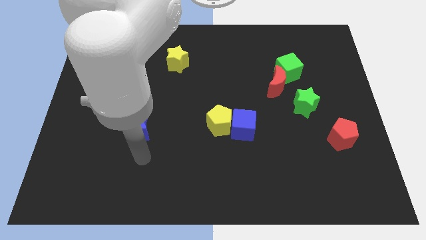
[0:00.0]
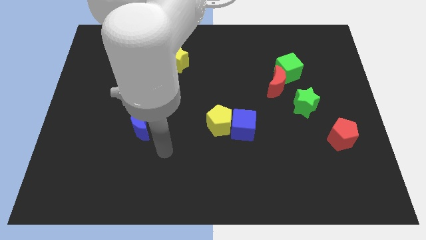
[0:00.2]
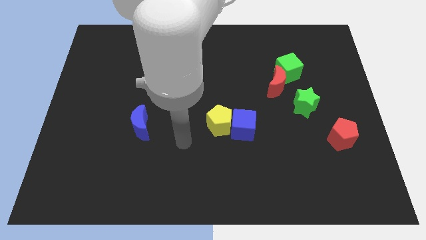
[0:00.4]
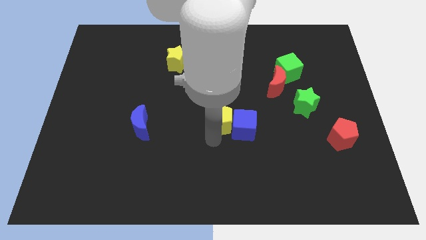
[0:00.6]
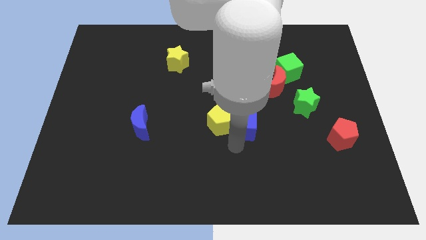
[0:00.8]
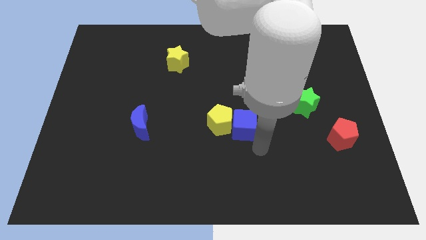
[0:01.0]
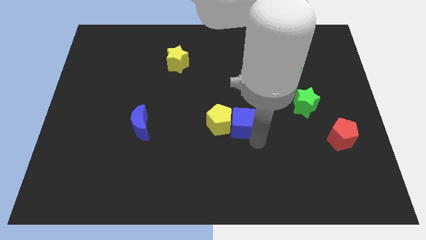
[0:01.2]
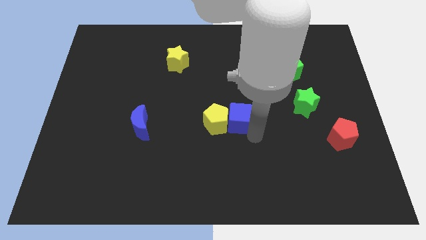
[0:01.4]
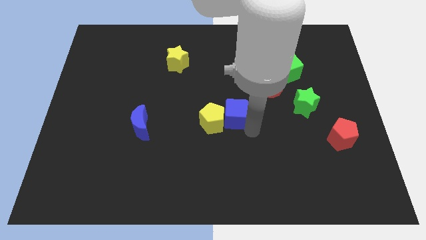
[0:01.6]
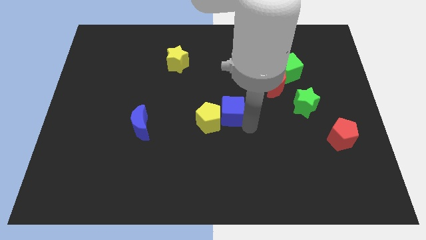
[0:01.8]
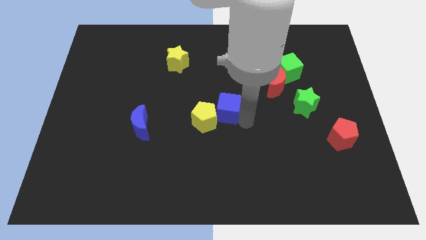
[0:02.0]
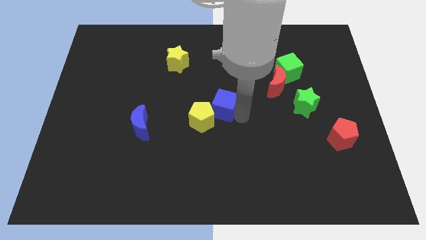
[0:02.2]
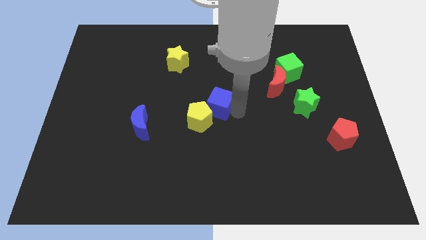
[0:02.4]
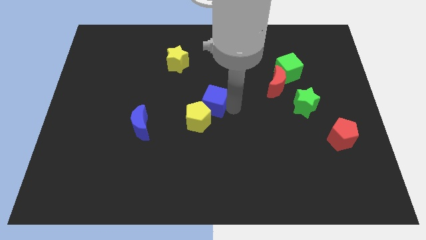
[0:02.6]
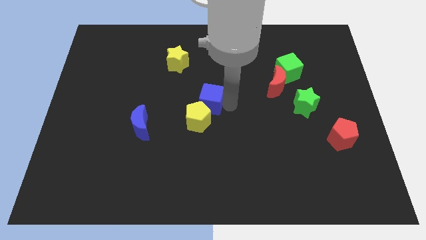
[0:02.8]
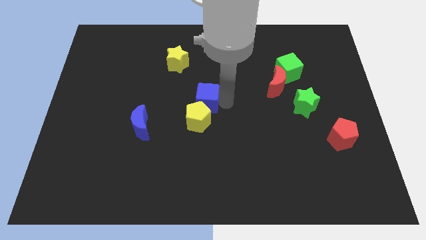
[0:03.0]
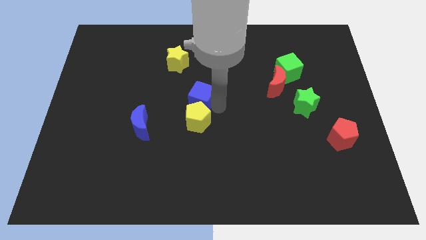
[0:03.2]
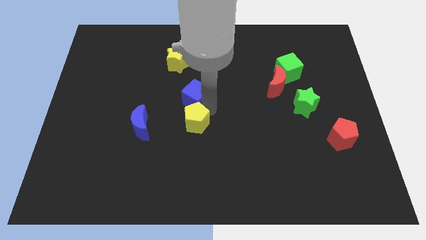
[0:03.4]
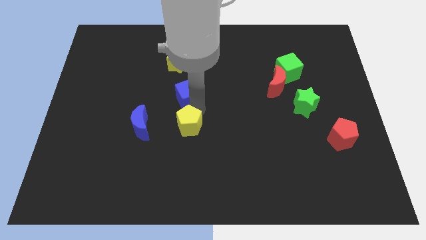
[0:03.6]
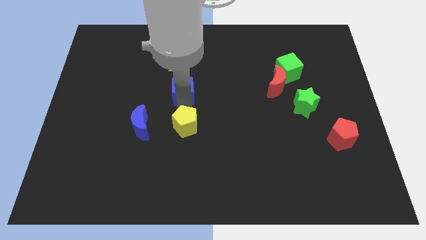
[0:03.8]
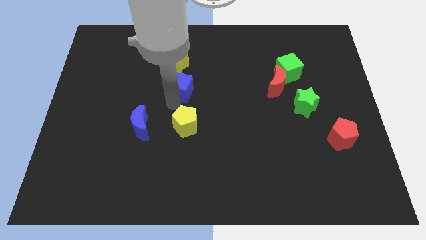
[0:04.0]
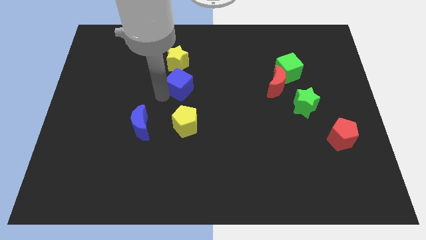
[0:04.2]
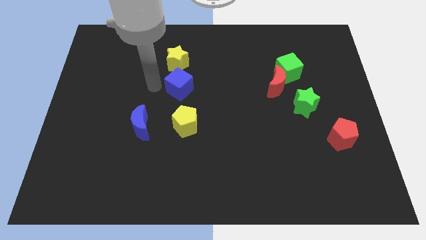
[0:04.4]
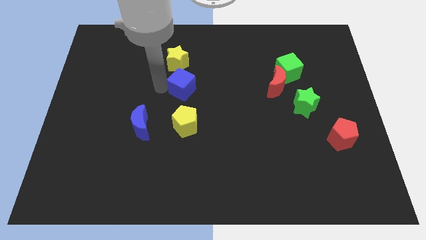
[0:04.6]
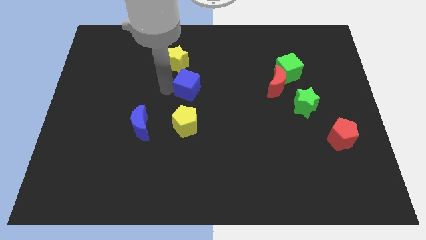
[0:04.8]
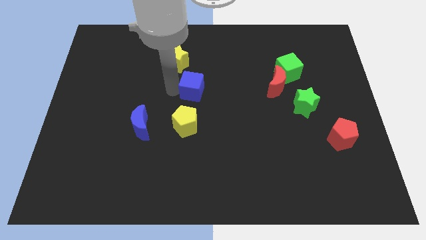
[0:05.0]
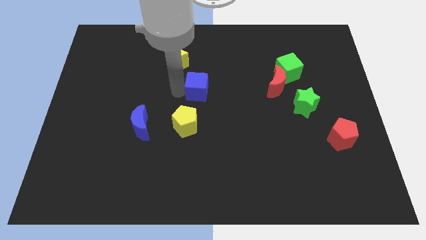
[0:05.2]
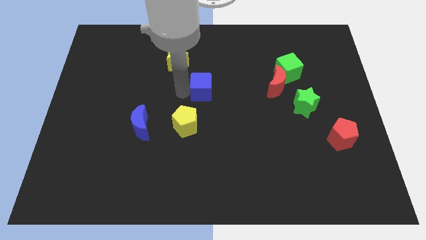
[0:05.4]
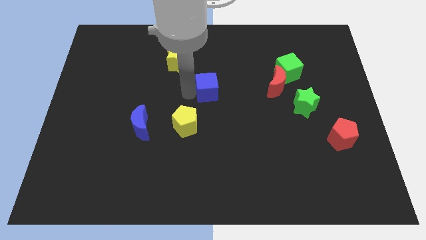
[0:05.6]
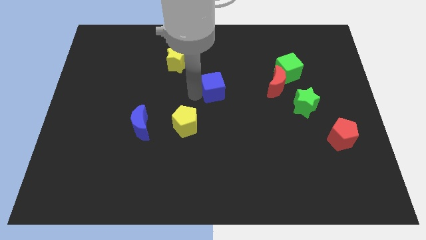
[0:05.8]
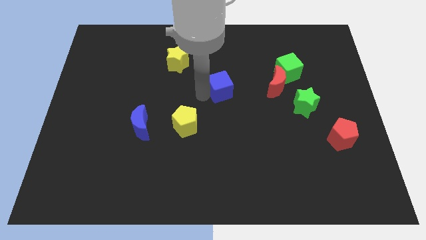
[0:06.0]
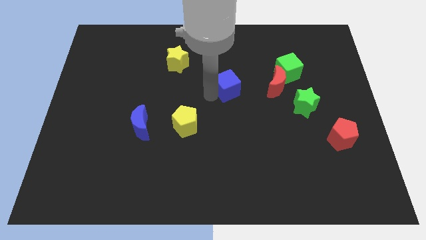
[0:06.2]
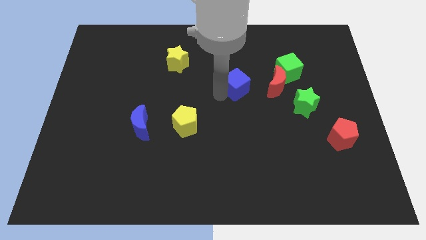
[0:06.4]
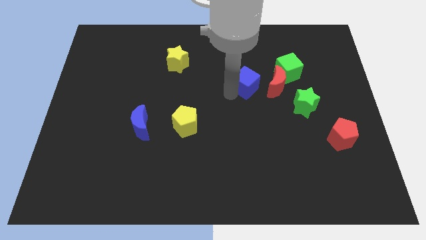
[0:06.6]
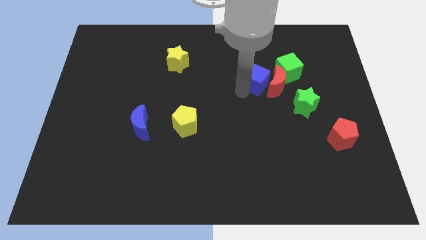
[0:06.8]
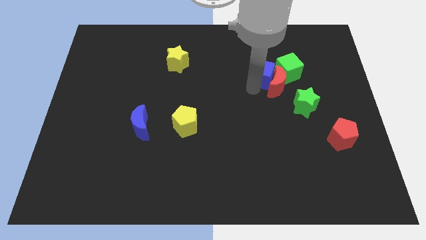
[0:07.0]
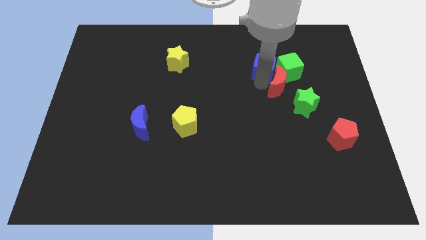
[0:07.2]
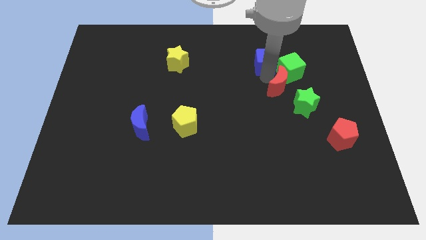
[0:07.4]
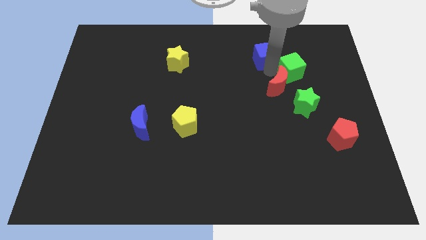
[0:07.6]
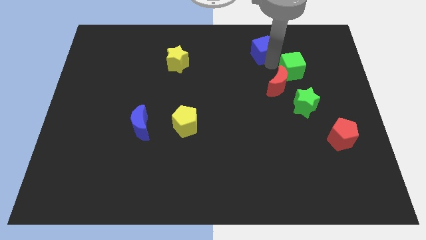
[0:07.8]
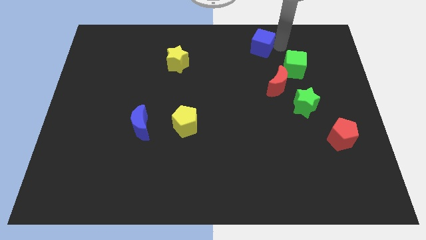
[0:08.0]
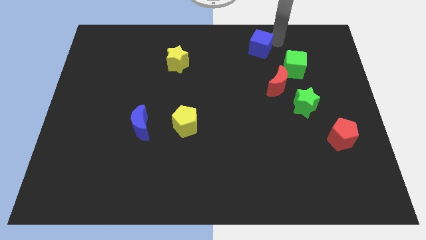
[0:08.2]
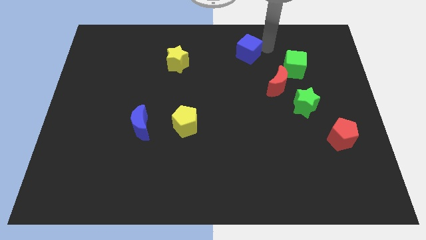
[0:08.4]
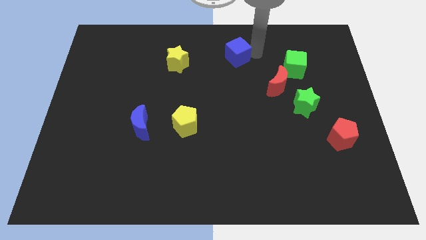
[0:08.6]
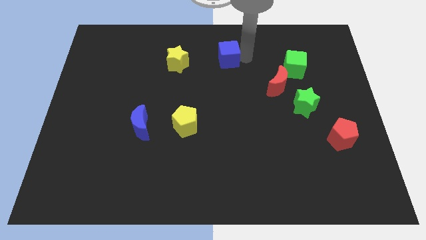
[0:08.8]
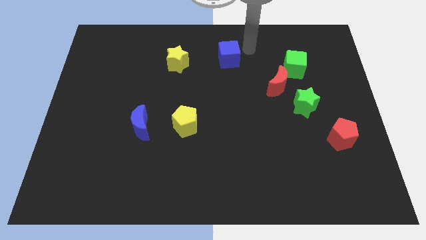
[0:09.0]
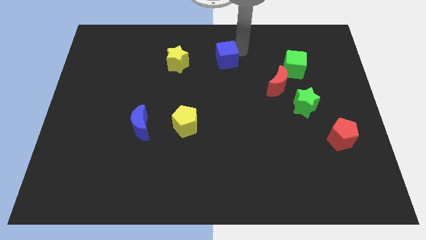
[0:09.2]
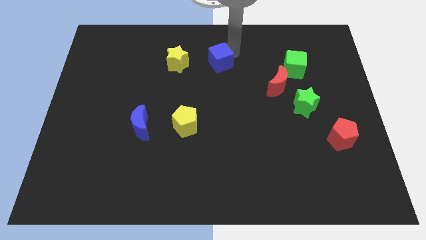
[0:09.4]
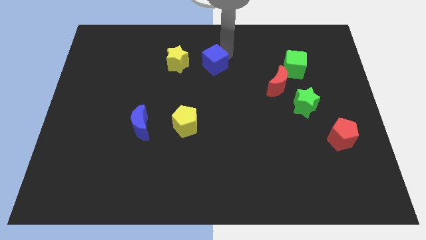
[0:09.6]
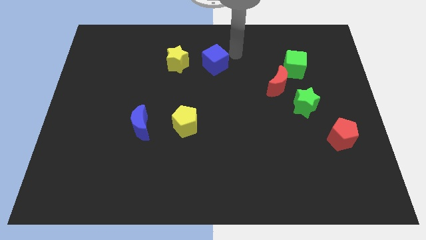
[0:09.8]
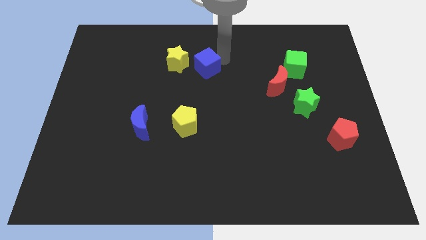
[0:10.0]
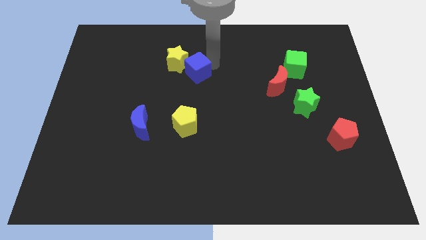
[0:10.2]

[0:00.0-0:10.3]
push the blue cube next to the yellow star

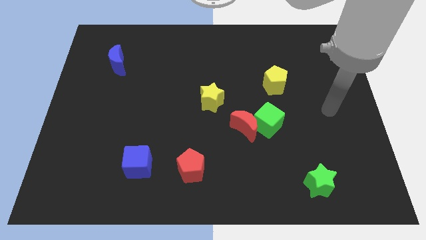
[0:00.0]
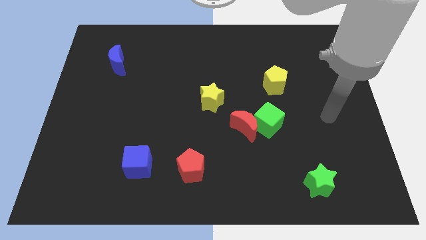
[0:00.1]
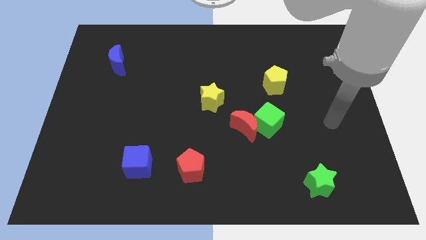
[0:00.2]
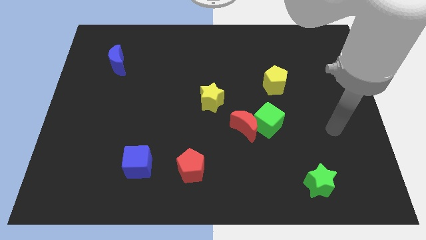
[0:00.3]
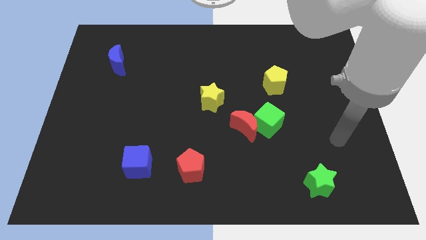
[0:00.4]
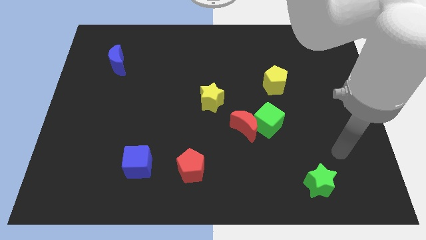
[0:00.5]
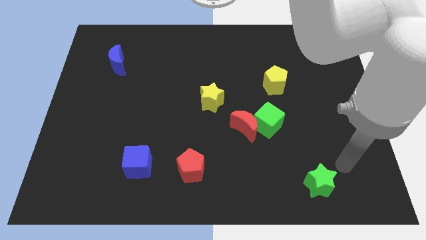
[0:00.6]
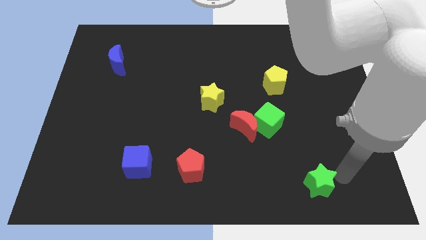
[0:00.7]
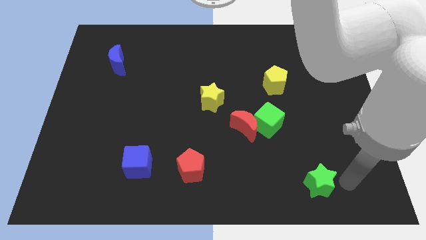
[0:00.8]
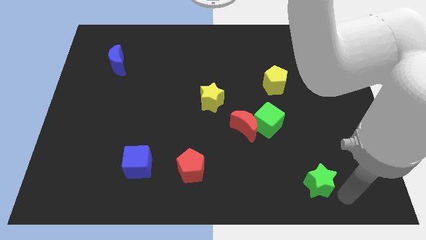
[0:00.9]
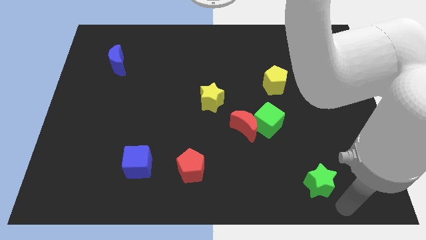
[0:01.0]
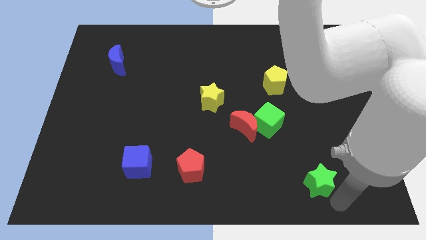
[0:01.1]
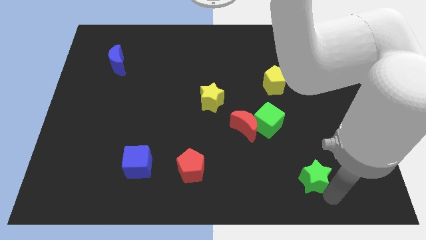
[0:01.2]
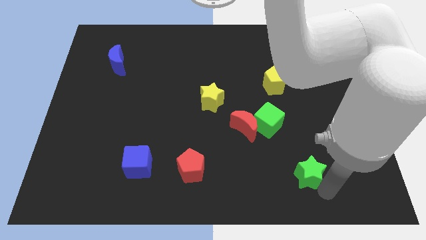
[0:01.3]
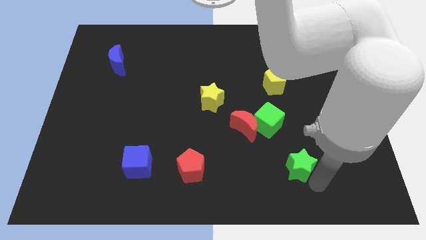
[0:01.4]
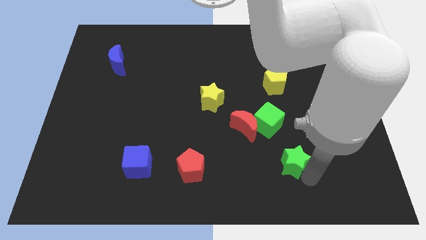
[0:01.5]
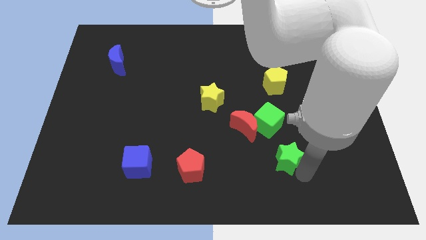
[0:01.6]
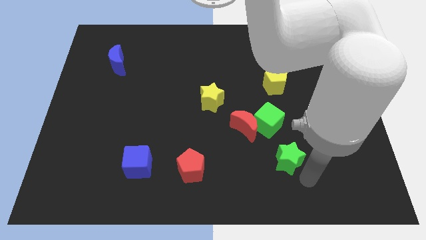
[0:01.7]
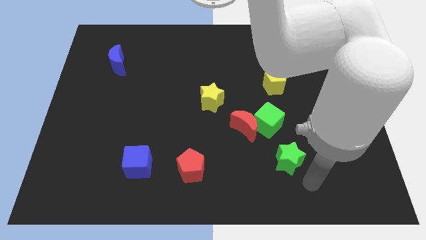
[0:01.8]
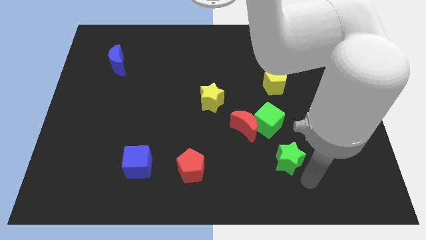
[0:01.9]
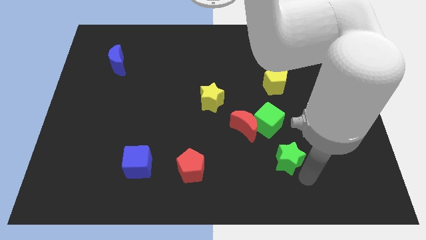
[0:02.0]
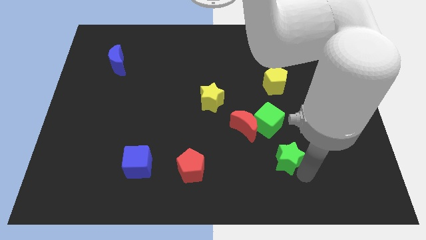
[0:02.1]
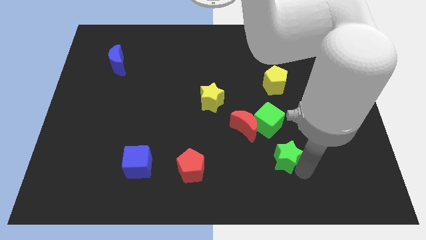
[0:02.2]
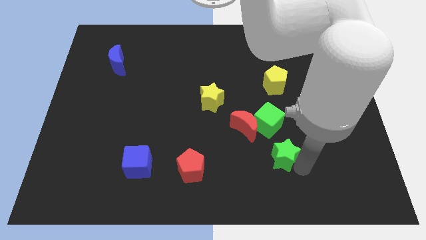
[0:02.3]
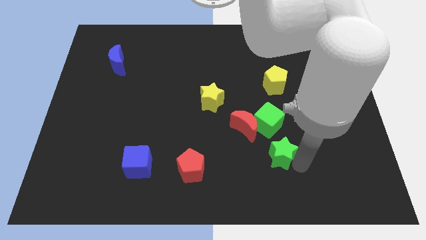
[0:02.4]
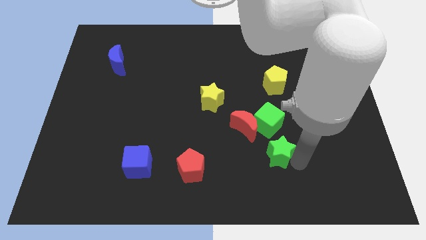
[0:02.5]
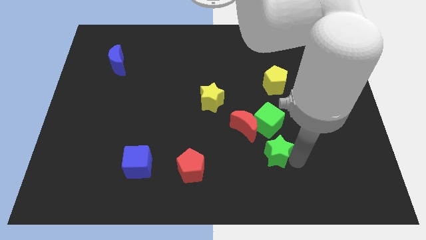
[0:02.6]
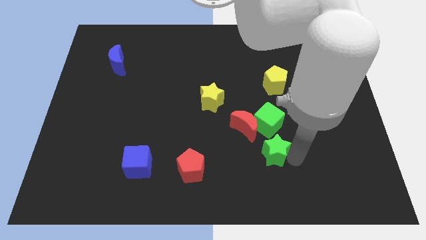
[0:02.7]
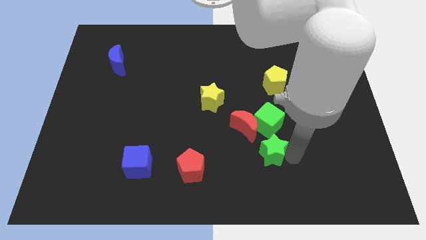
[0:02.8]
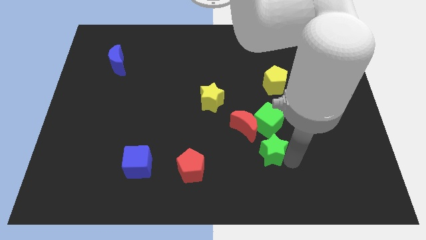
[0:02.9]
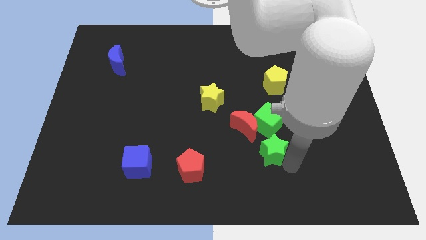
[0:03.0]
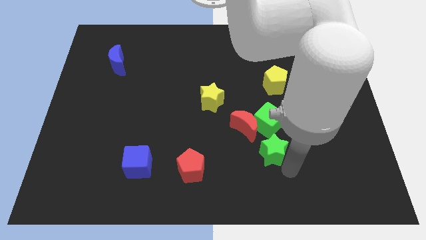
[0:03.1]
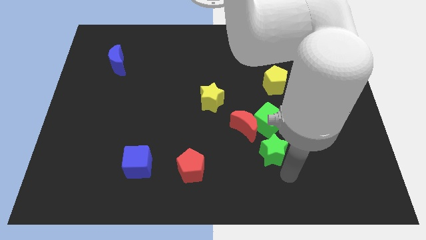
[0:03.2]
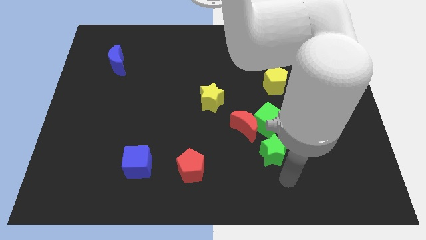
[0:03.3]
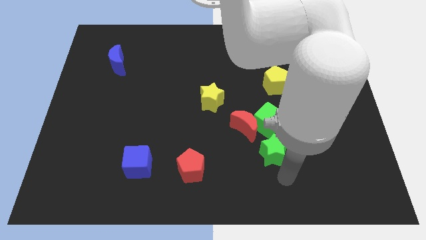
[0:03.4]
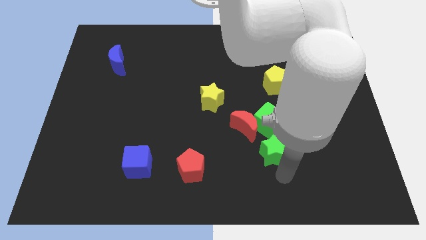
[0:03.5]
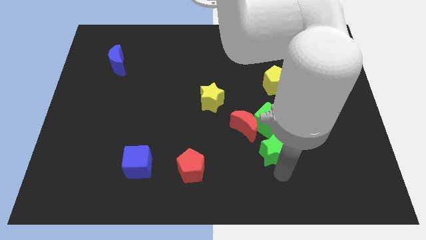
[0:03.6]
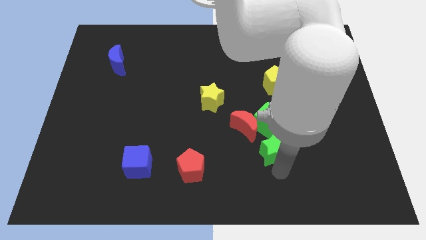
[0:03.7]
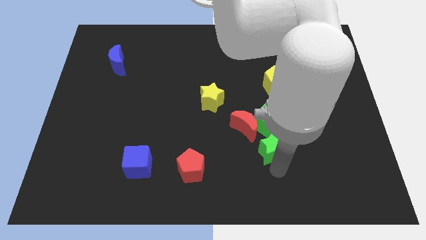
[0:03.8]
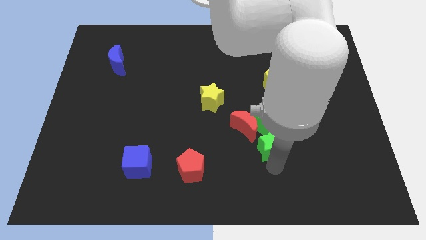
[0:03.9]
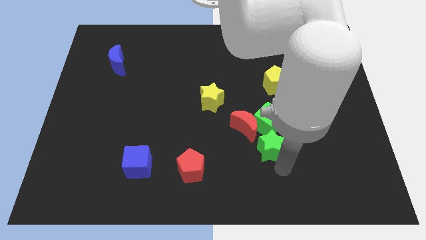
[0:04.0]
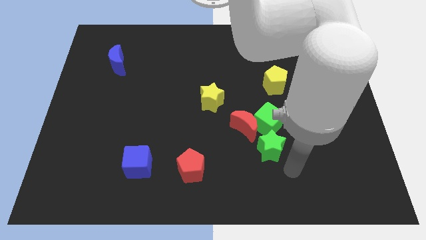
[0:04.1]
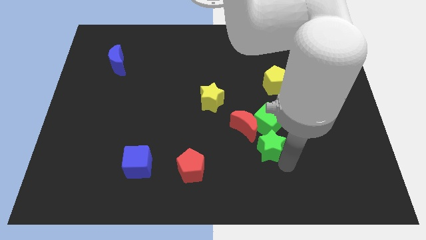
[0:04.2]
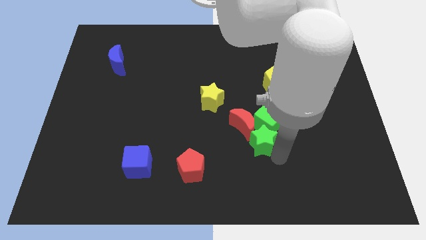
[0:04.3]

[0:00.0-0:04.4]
put the green star towards the red moon
